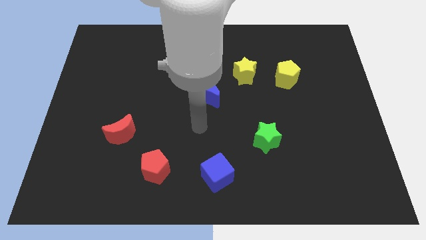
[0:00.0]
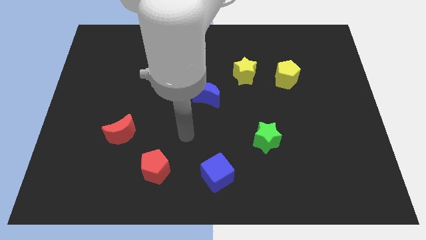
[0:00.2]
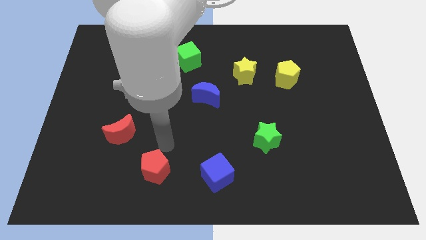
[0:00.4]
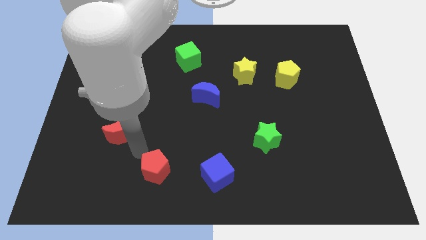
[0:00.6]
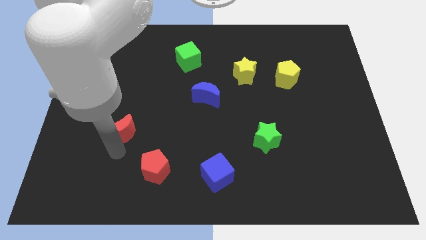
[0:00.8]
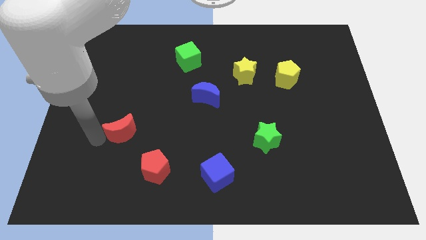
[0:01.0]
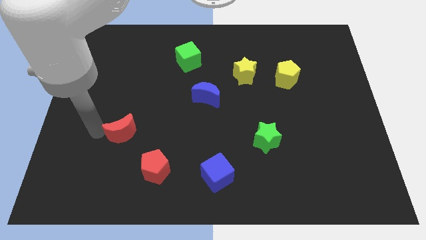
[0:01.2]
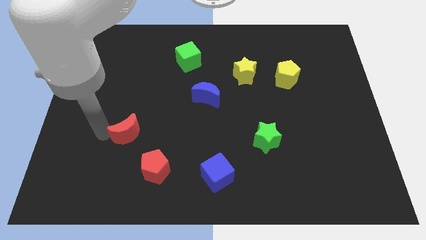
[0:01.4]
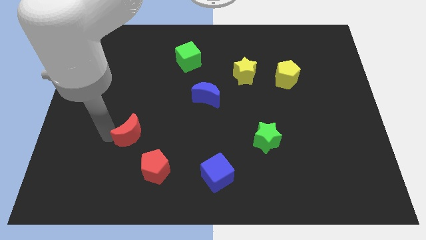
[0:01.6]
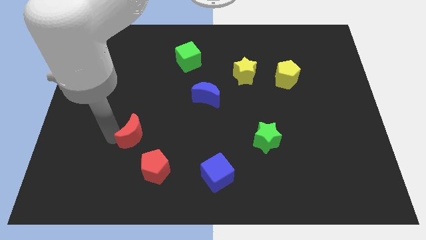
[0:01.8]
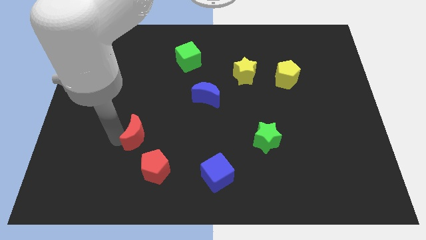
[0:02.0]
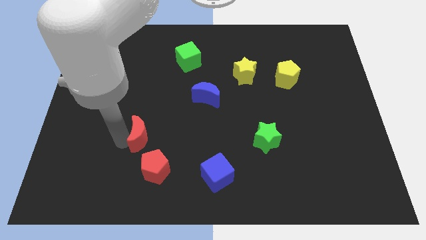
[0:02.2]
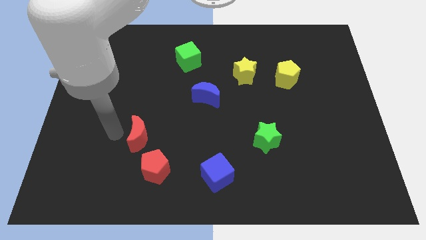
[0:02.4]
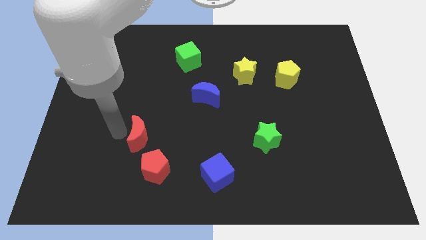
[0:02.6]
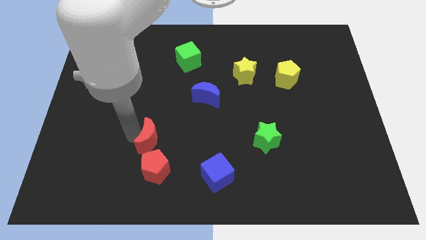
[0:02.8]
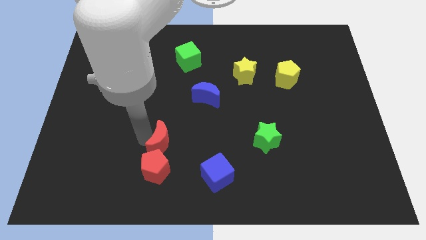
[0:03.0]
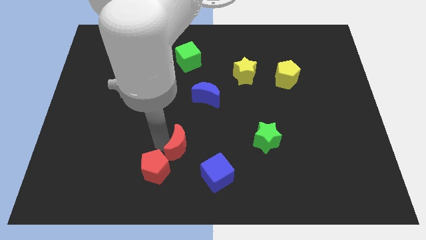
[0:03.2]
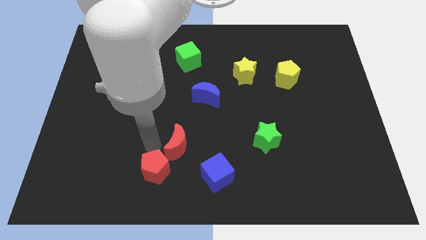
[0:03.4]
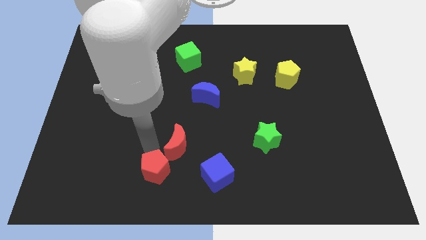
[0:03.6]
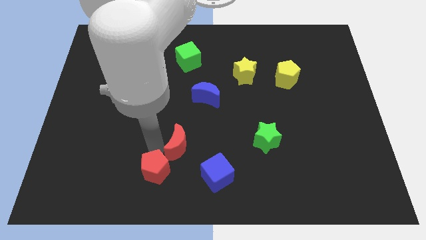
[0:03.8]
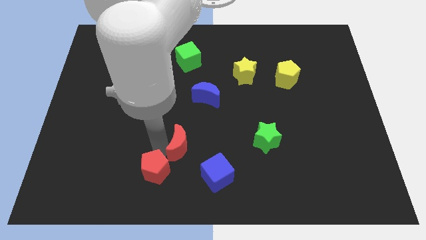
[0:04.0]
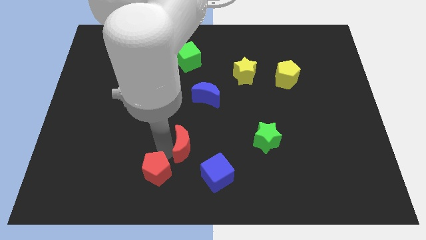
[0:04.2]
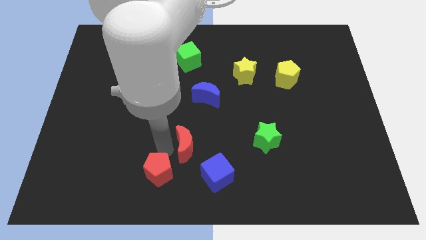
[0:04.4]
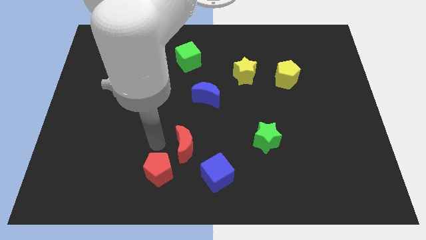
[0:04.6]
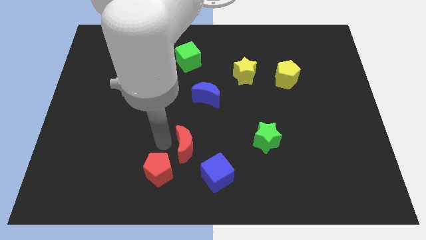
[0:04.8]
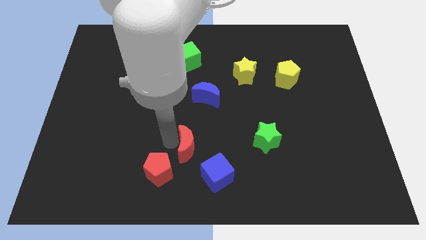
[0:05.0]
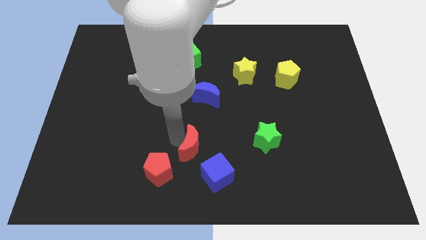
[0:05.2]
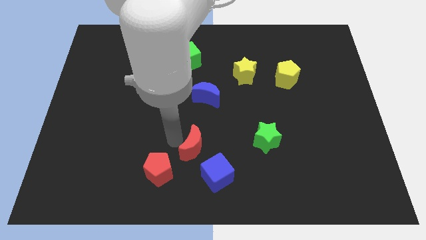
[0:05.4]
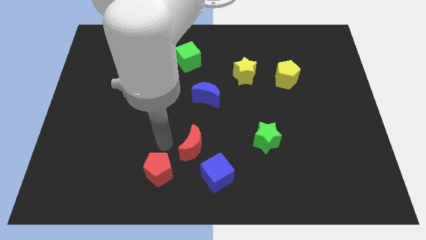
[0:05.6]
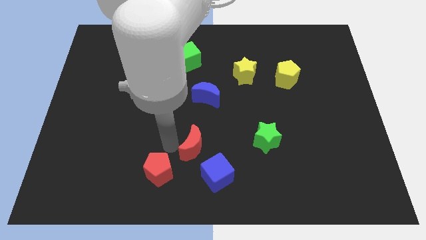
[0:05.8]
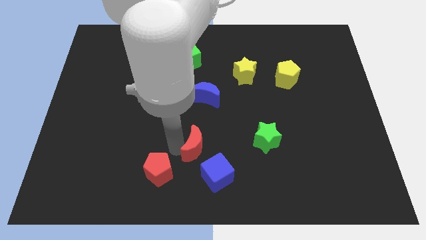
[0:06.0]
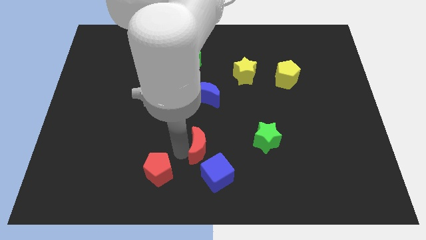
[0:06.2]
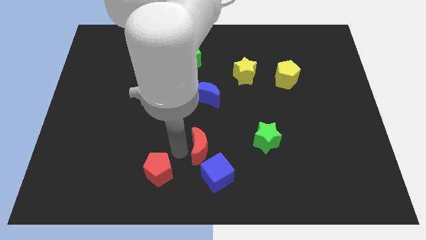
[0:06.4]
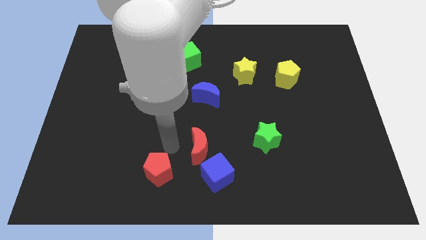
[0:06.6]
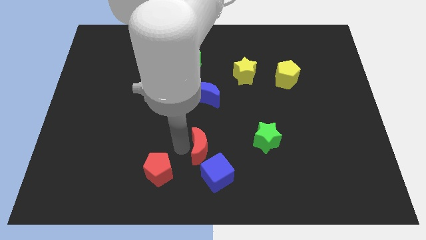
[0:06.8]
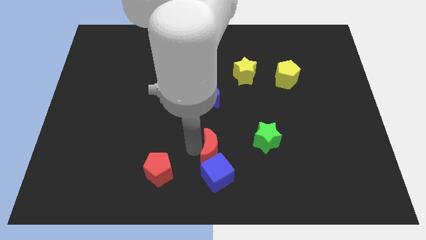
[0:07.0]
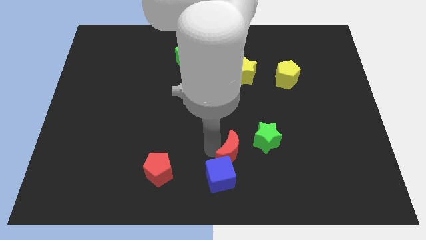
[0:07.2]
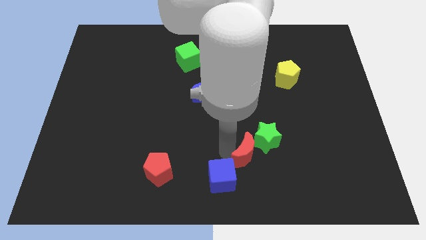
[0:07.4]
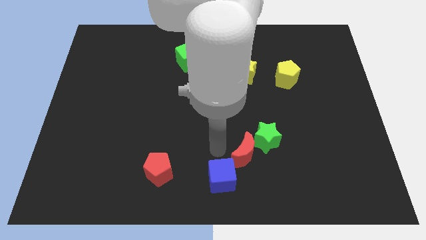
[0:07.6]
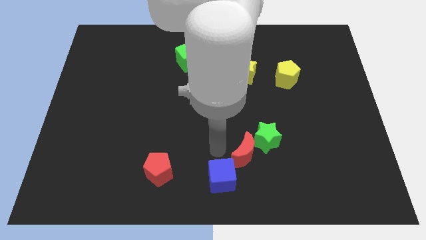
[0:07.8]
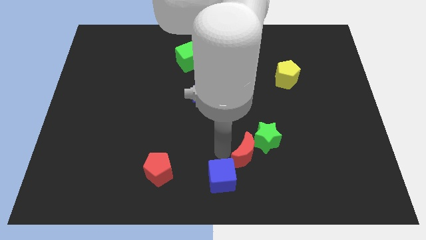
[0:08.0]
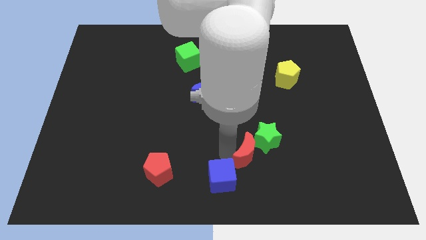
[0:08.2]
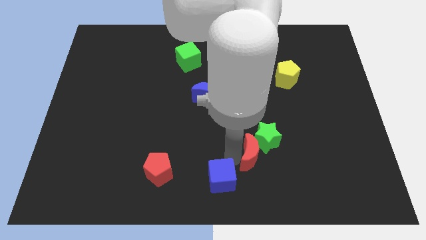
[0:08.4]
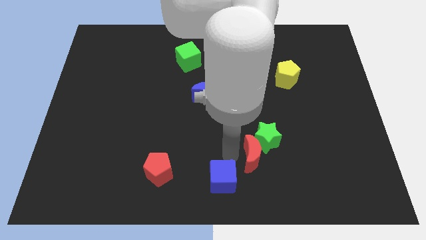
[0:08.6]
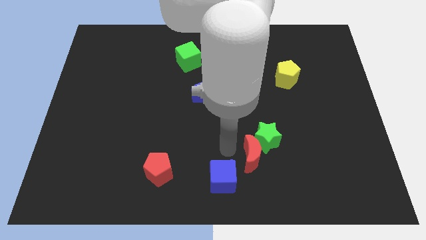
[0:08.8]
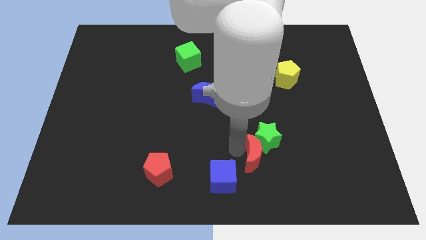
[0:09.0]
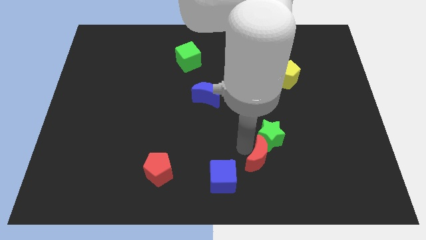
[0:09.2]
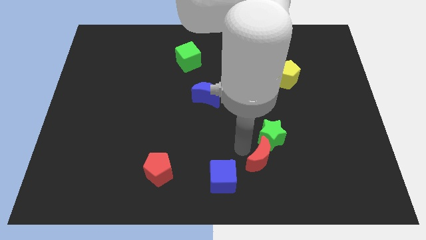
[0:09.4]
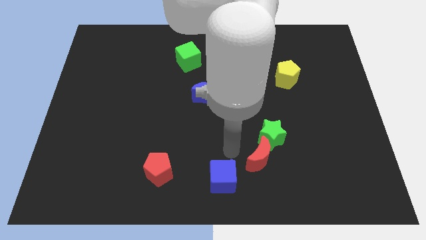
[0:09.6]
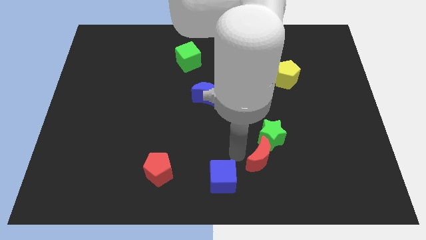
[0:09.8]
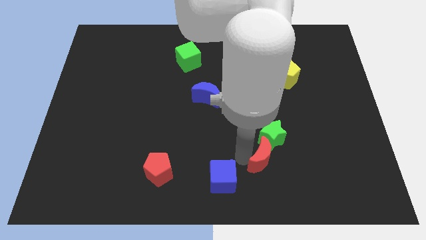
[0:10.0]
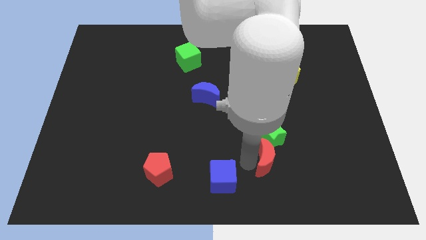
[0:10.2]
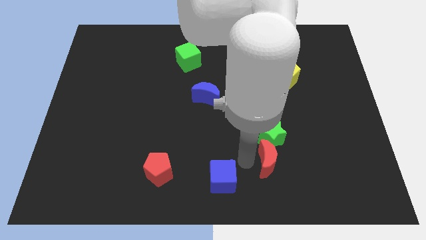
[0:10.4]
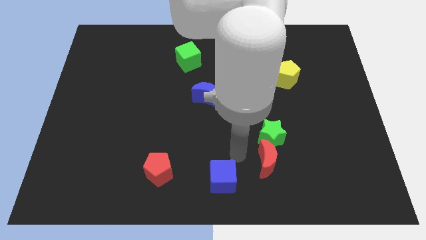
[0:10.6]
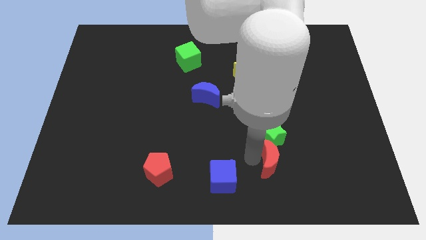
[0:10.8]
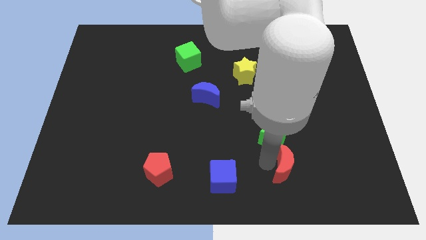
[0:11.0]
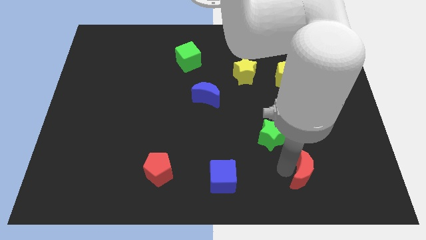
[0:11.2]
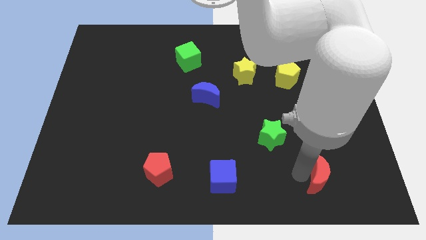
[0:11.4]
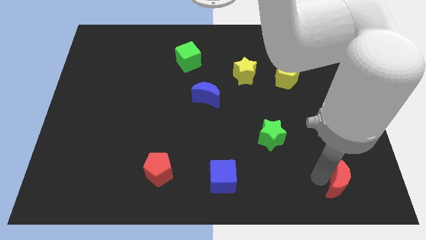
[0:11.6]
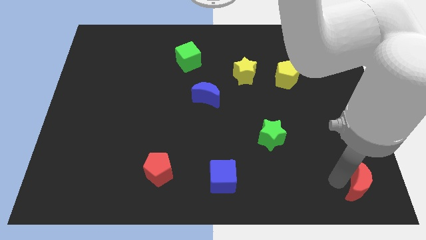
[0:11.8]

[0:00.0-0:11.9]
put the red moon to the bottom right corner

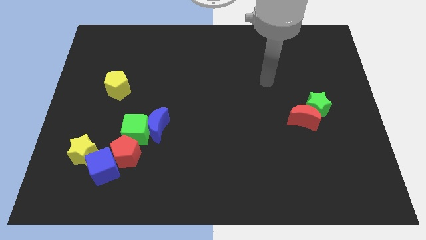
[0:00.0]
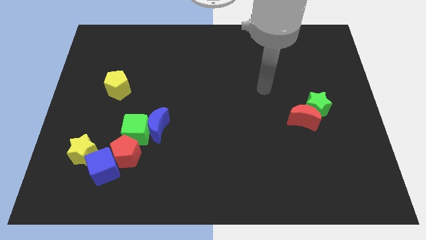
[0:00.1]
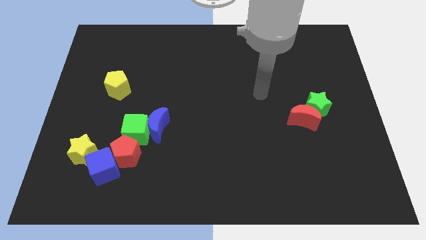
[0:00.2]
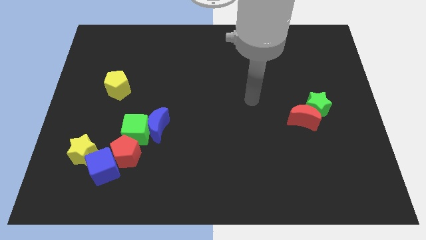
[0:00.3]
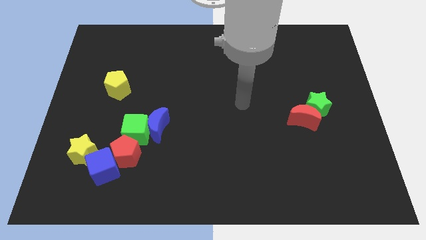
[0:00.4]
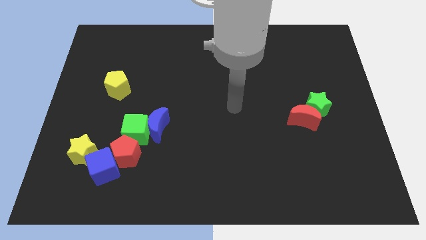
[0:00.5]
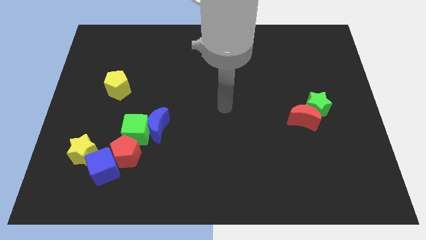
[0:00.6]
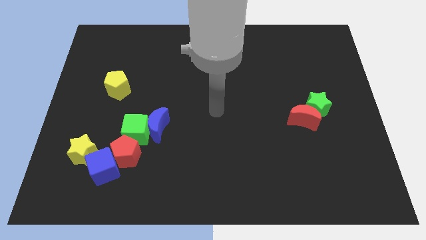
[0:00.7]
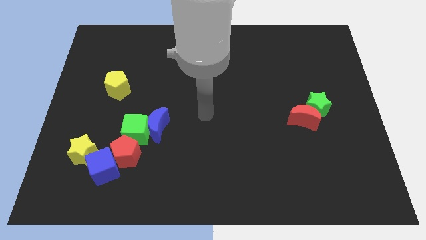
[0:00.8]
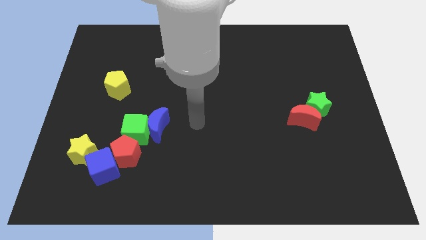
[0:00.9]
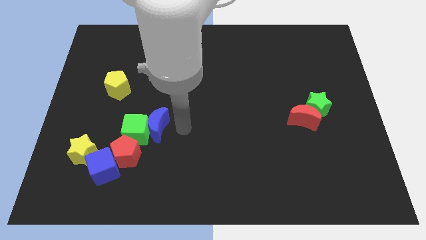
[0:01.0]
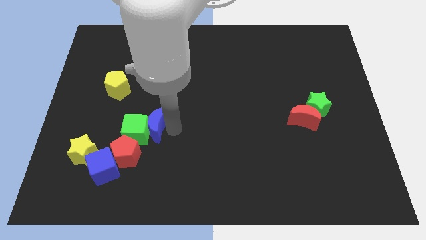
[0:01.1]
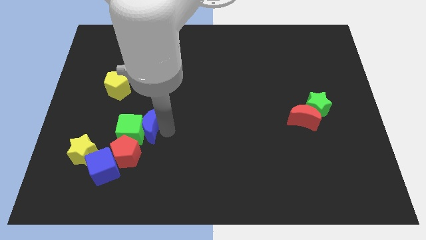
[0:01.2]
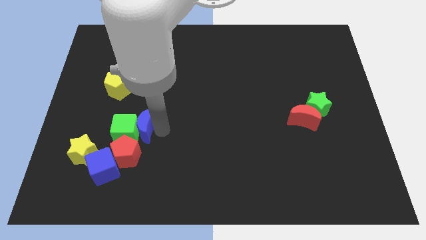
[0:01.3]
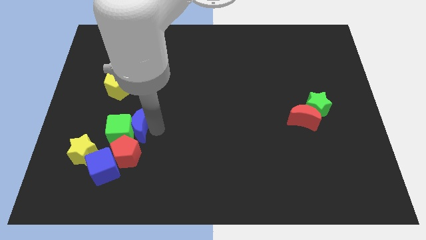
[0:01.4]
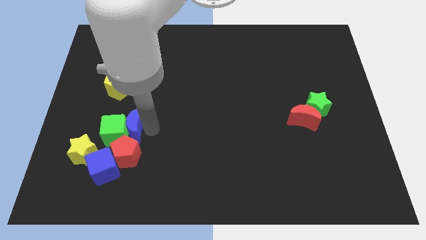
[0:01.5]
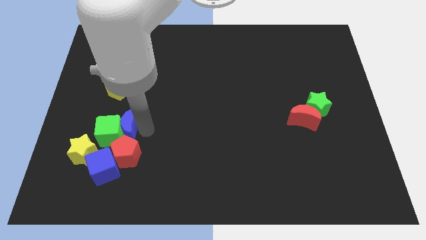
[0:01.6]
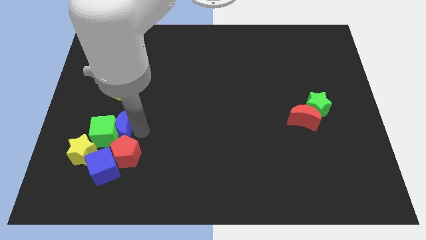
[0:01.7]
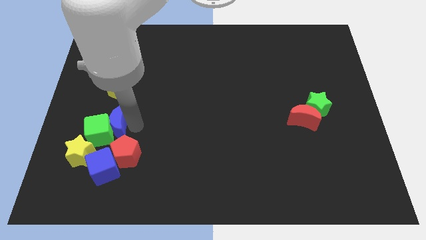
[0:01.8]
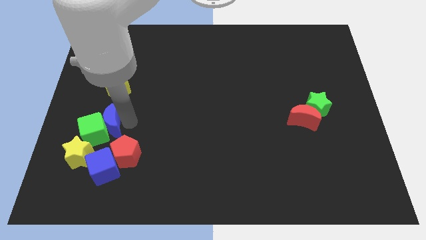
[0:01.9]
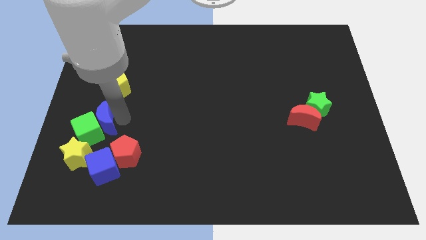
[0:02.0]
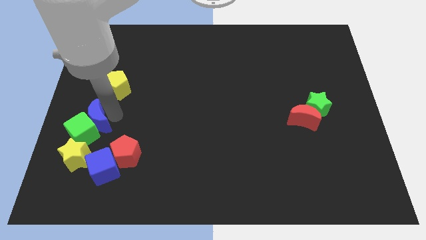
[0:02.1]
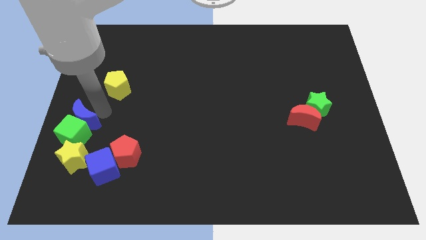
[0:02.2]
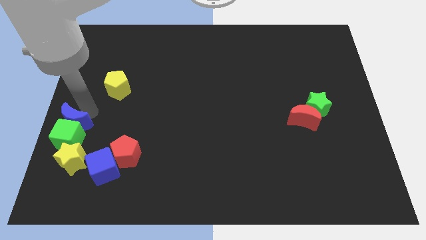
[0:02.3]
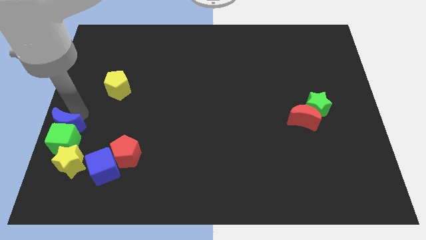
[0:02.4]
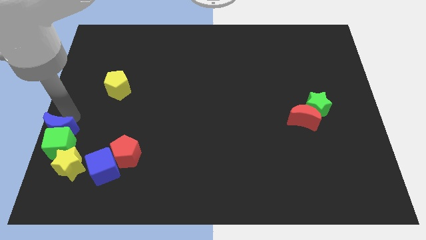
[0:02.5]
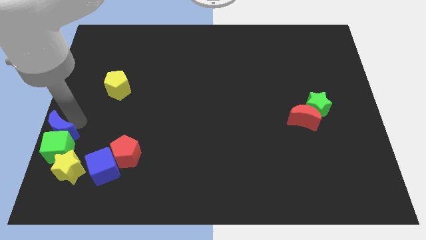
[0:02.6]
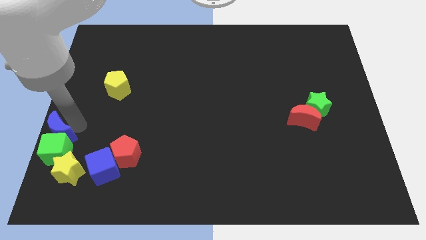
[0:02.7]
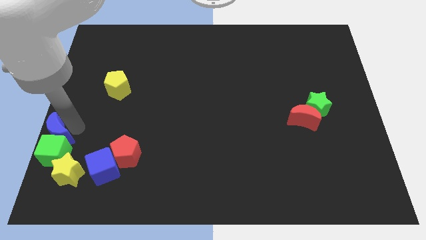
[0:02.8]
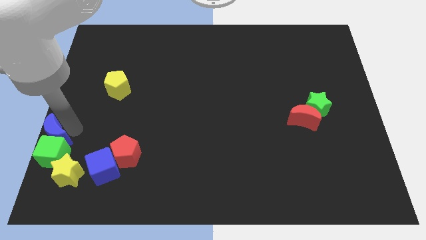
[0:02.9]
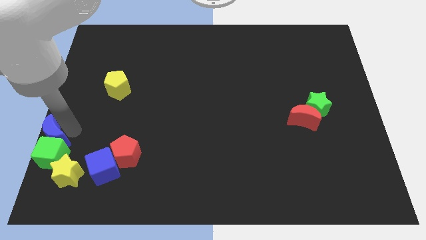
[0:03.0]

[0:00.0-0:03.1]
push the green cube to the bottom left of the board
